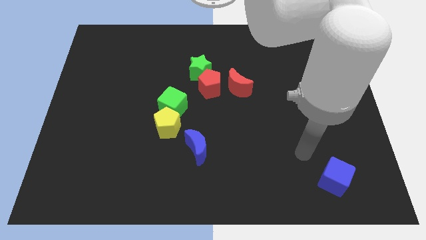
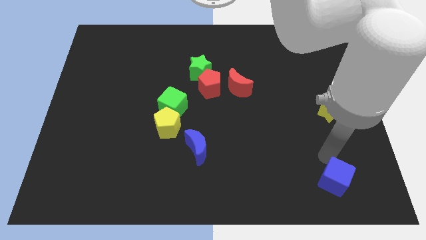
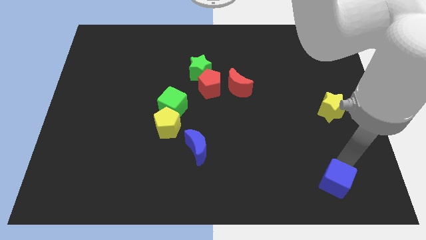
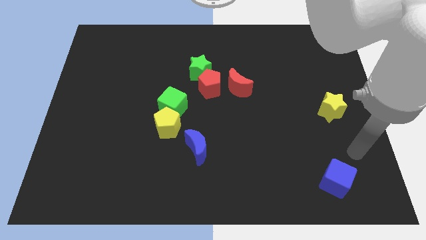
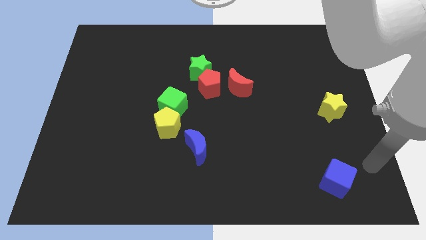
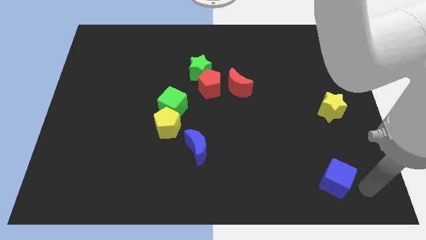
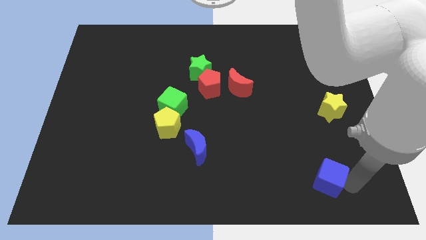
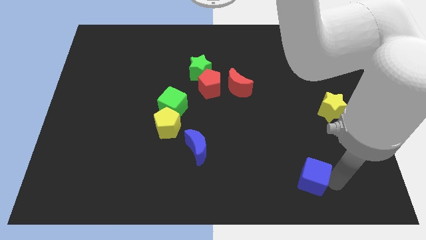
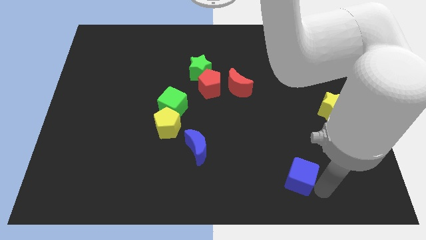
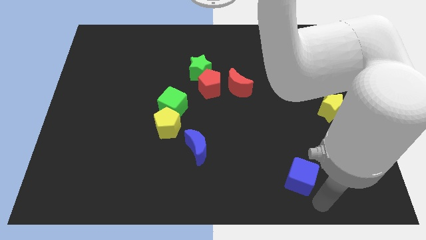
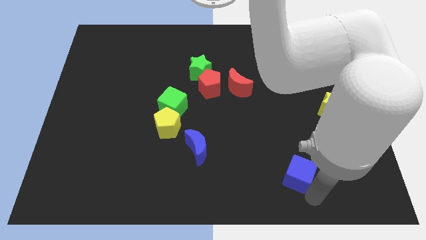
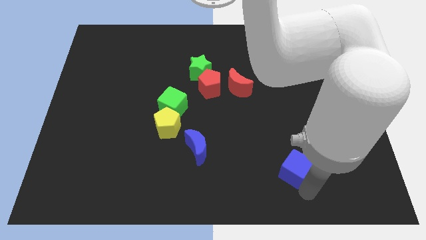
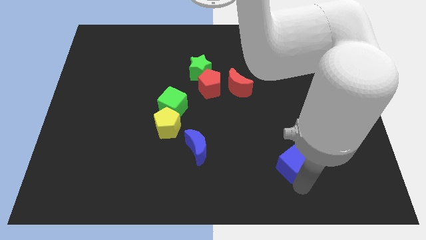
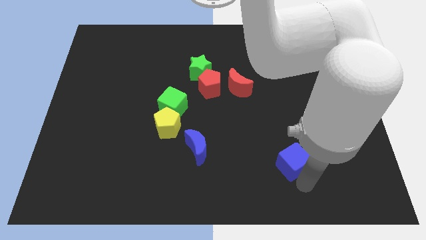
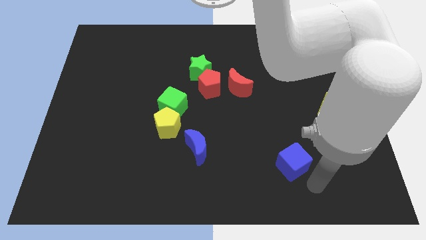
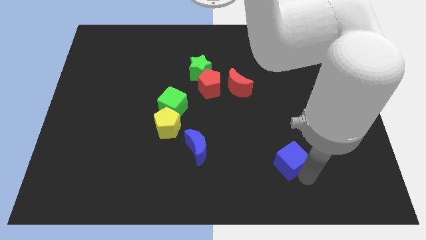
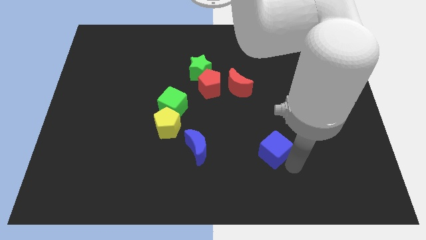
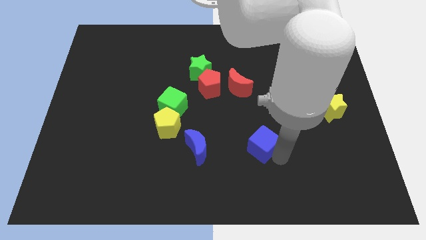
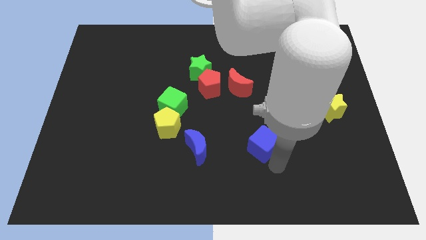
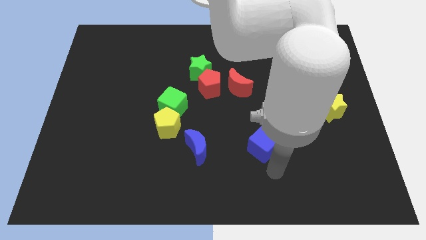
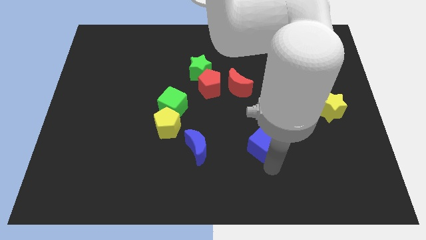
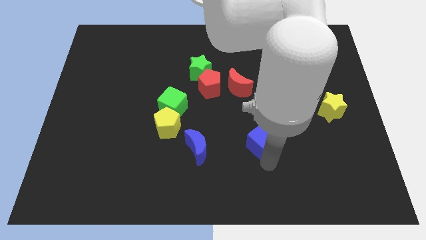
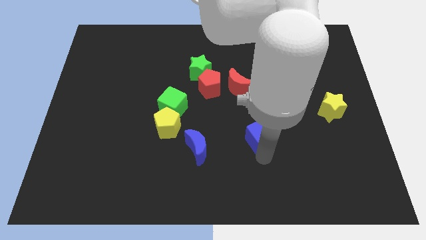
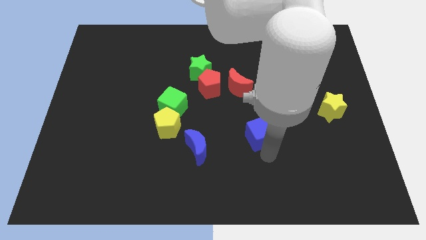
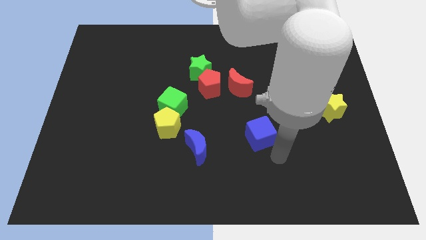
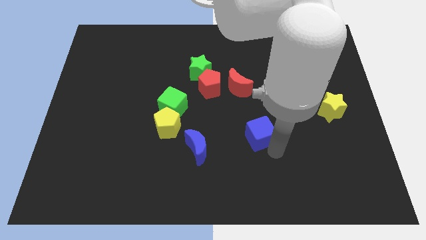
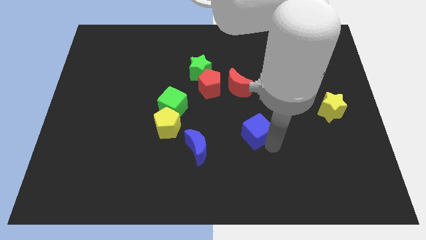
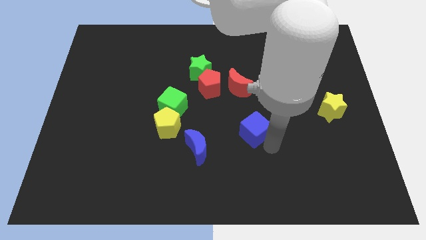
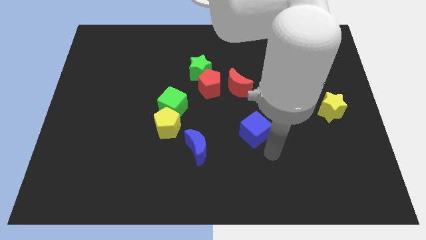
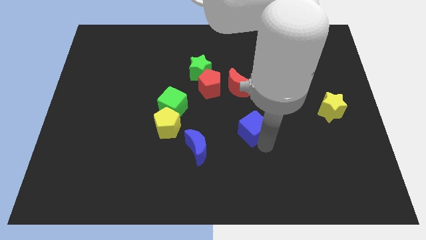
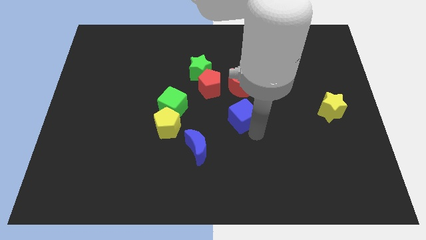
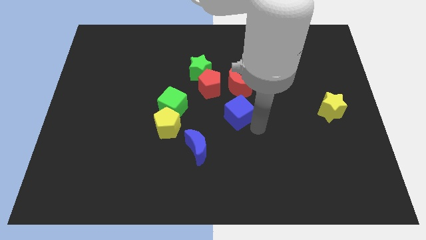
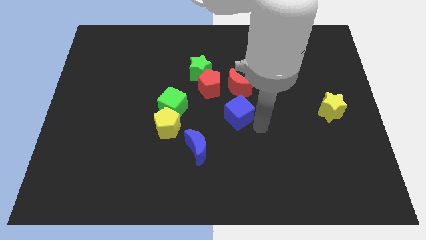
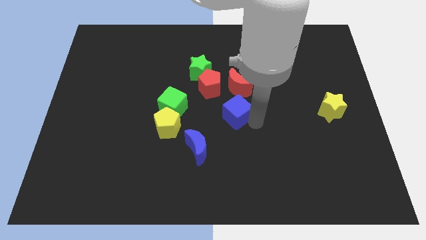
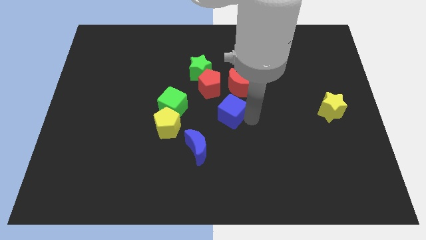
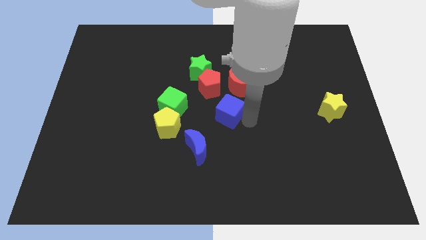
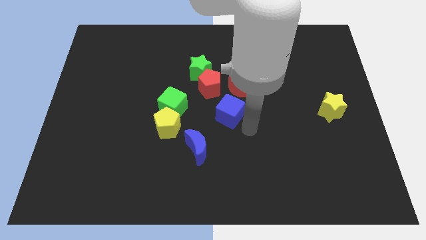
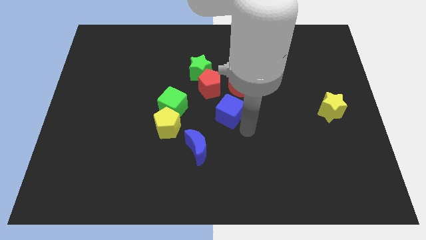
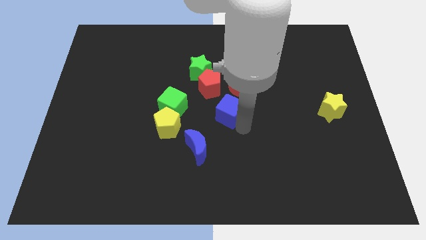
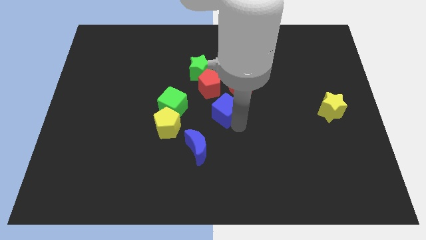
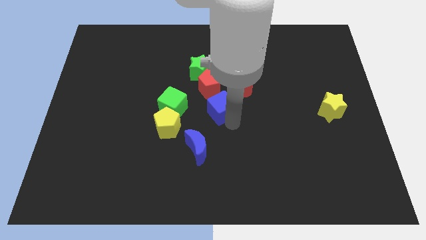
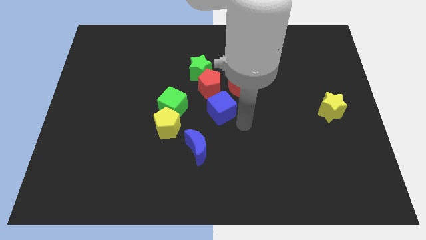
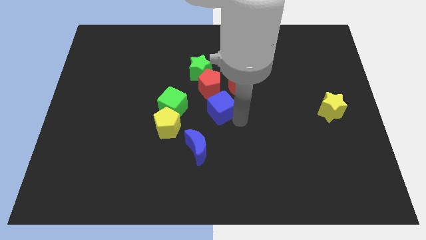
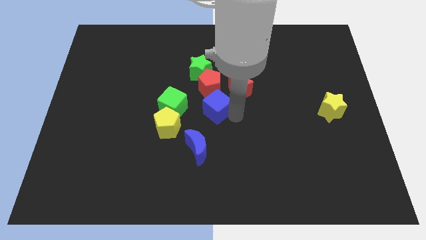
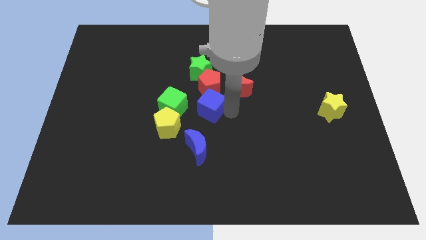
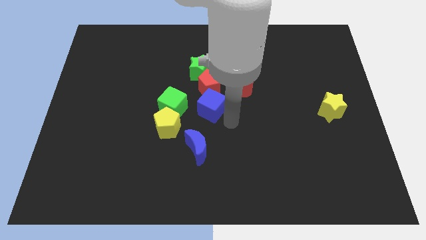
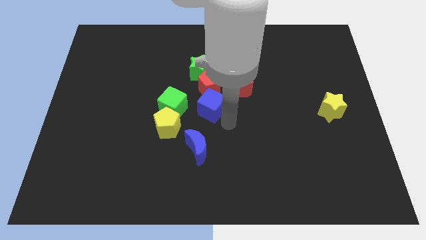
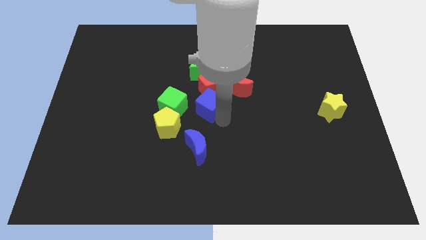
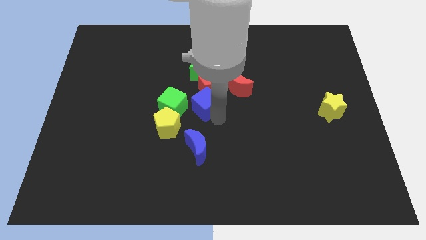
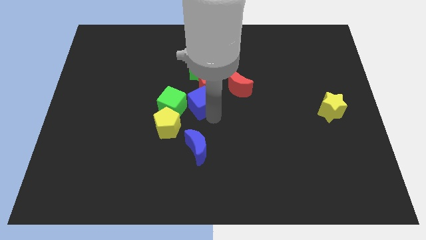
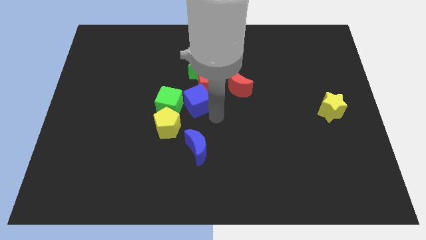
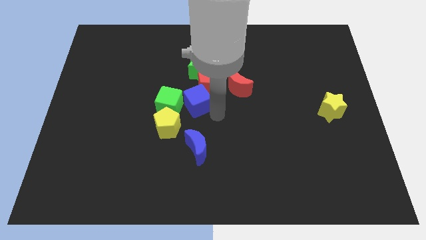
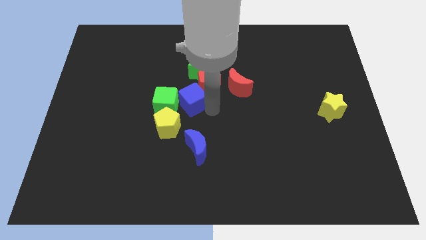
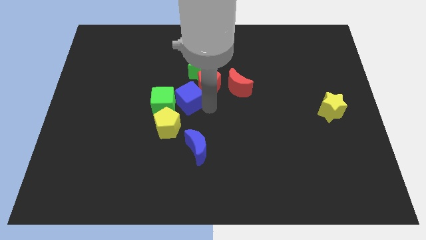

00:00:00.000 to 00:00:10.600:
put the blue cube to the left side of the red pentagon

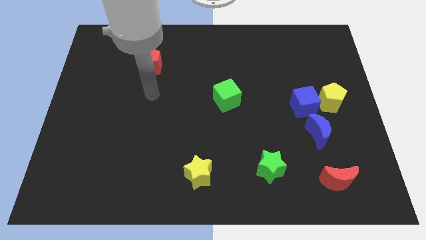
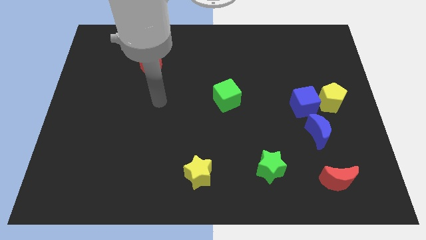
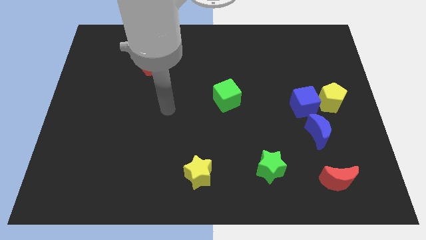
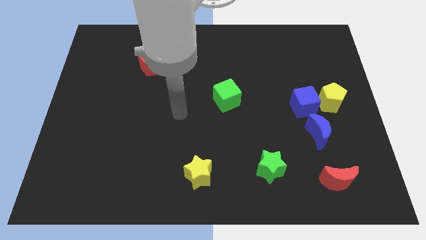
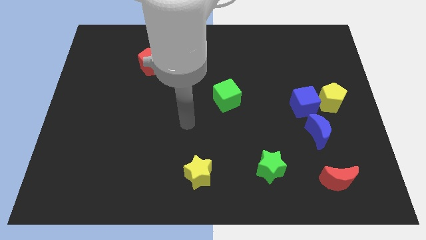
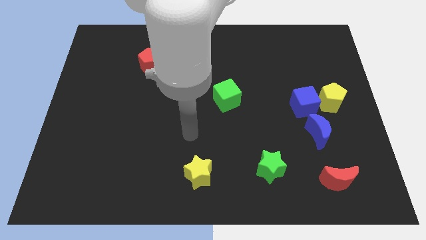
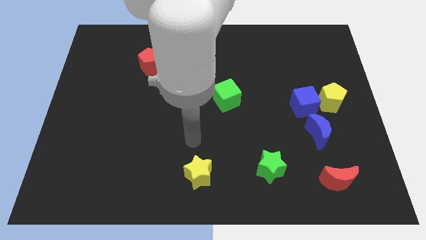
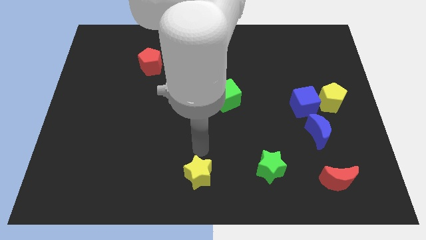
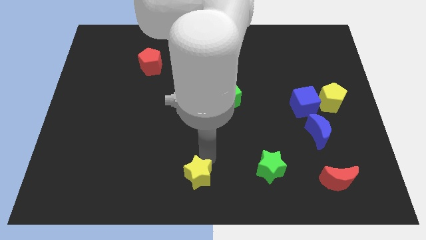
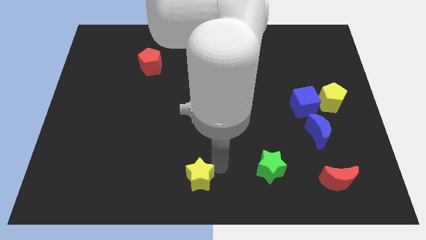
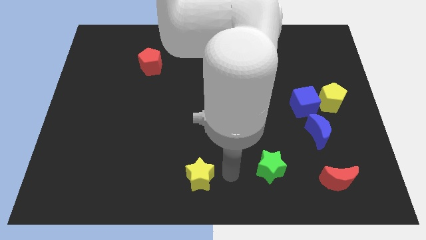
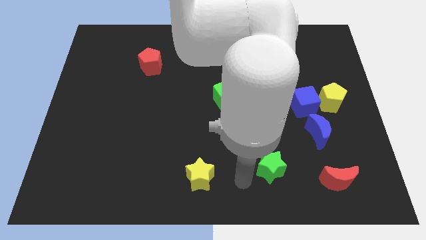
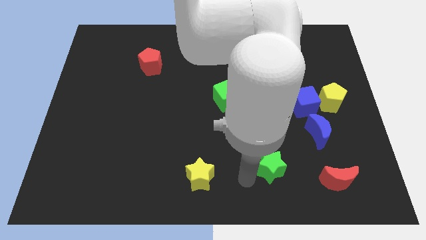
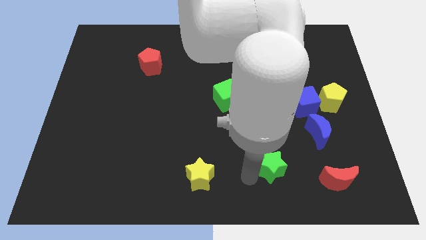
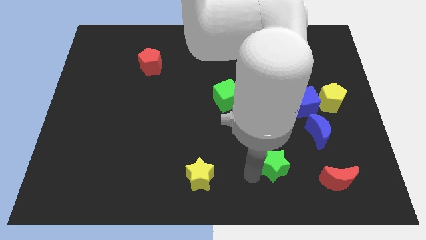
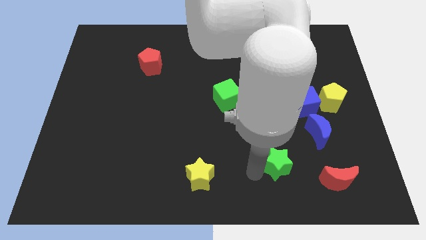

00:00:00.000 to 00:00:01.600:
put the green star to the bottom left side of the blue moon
